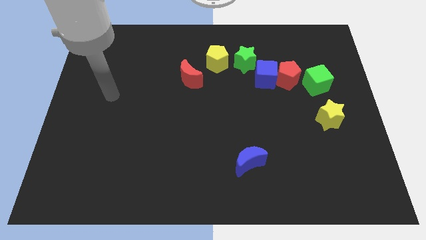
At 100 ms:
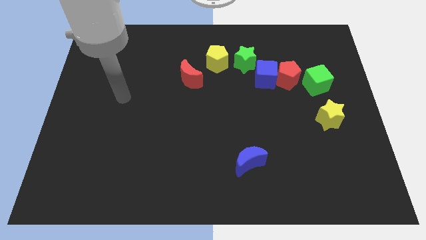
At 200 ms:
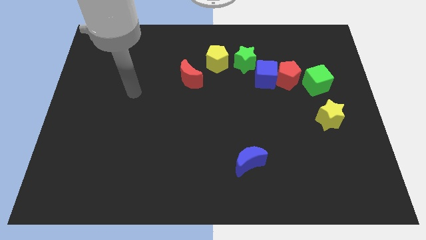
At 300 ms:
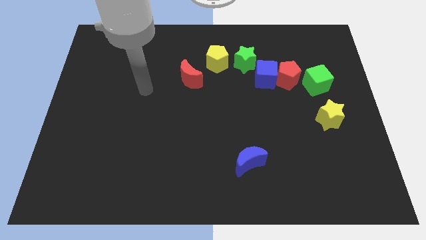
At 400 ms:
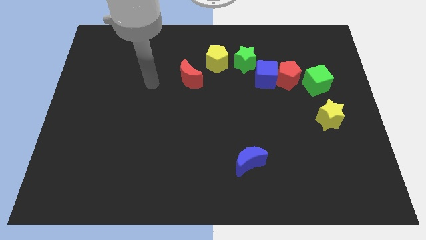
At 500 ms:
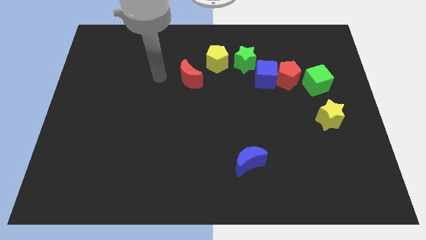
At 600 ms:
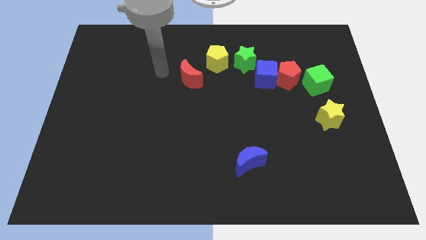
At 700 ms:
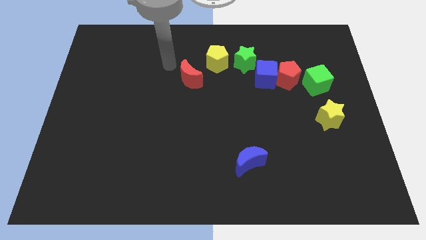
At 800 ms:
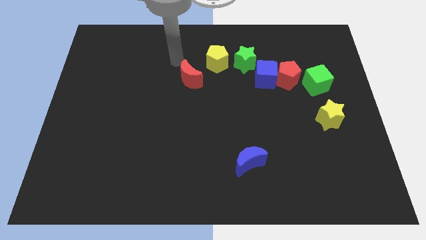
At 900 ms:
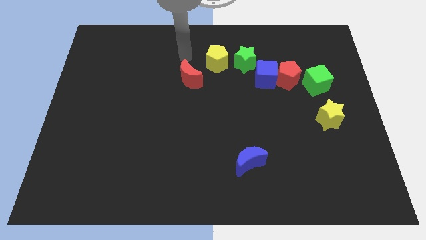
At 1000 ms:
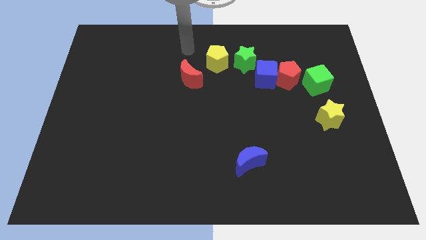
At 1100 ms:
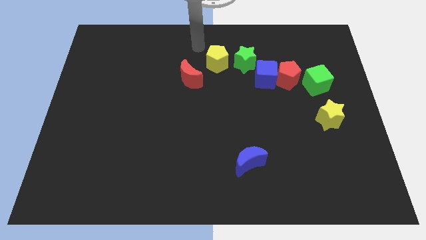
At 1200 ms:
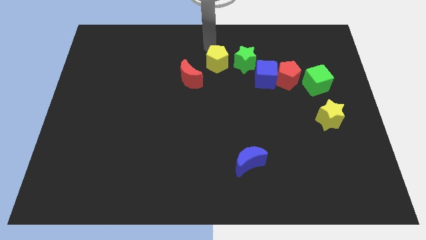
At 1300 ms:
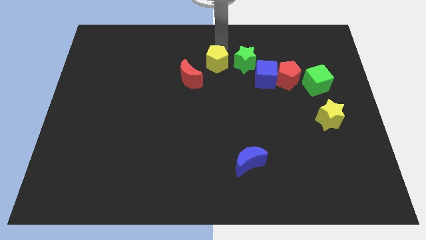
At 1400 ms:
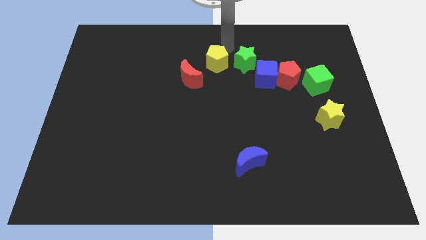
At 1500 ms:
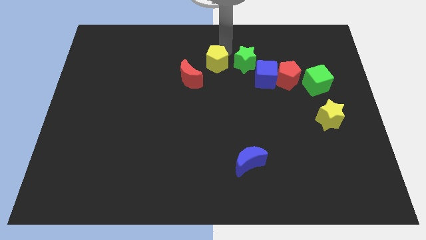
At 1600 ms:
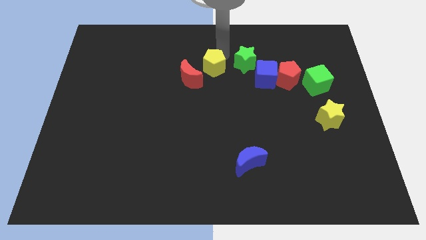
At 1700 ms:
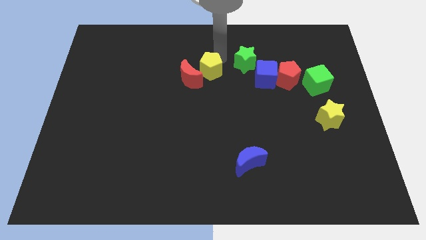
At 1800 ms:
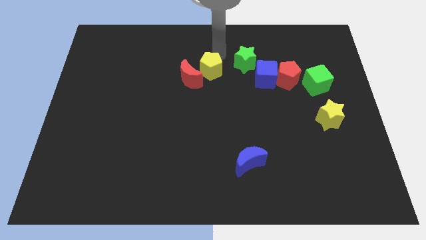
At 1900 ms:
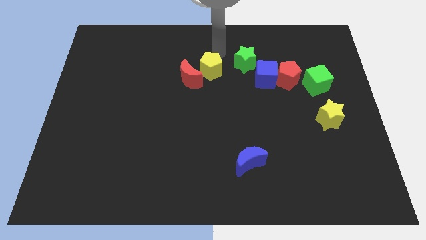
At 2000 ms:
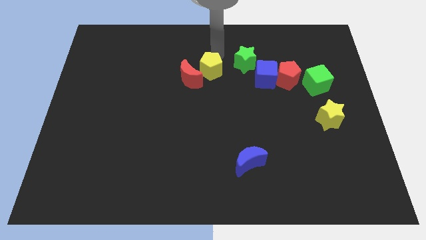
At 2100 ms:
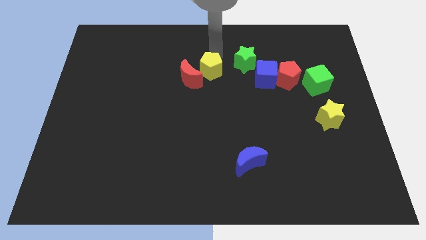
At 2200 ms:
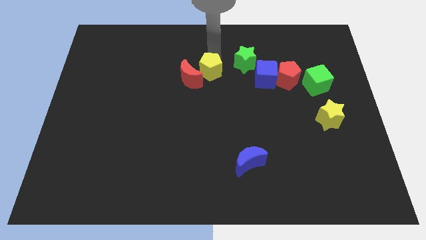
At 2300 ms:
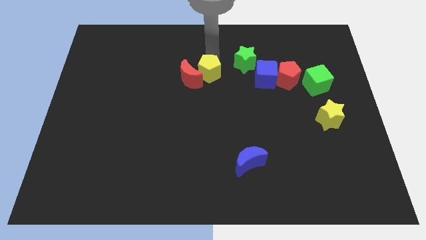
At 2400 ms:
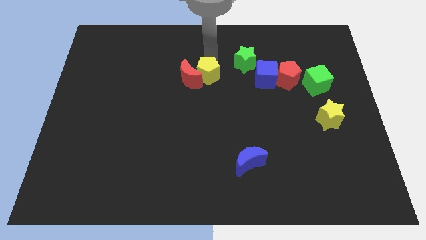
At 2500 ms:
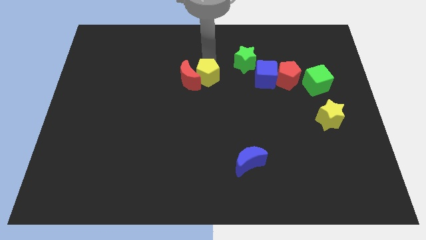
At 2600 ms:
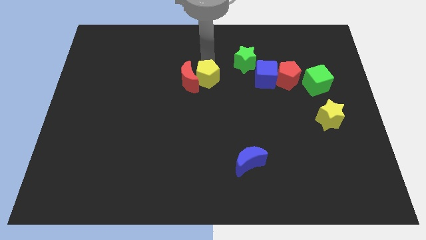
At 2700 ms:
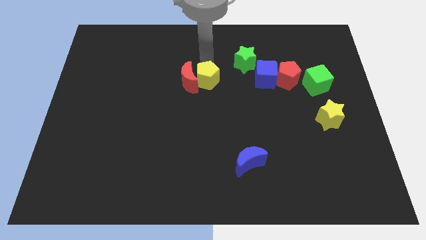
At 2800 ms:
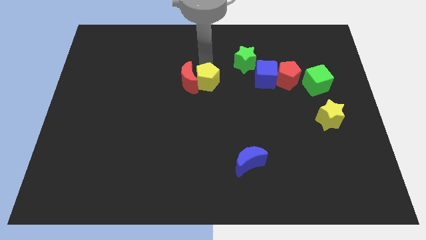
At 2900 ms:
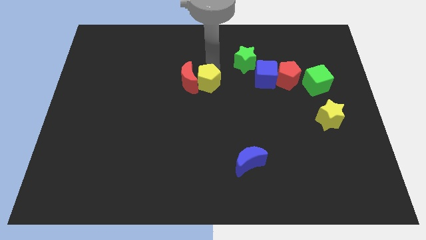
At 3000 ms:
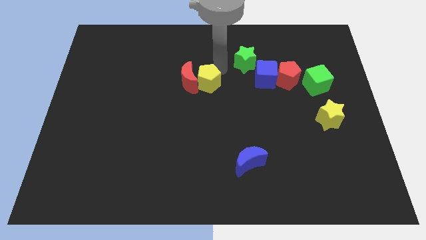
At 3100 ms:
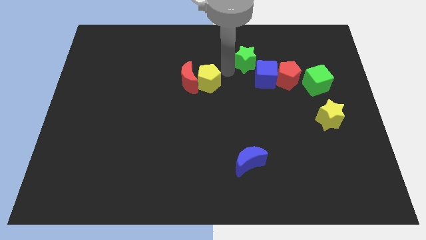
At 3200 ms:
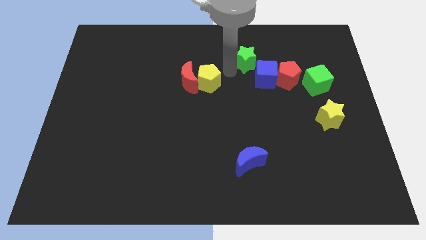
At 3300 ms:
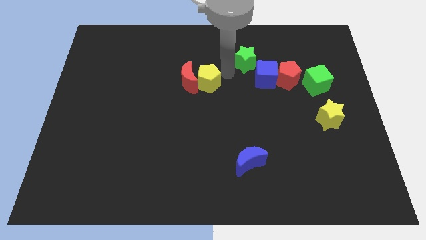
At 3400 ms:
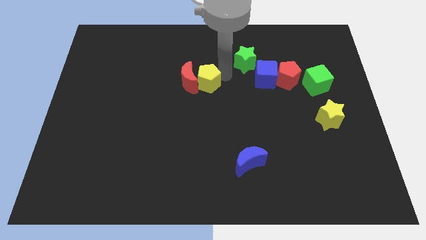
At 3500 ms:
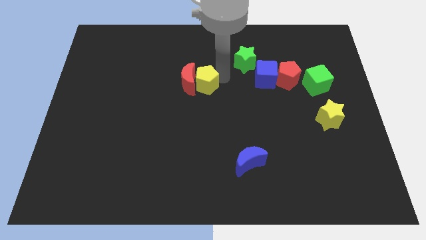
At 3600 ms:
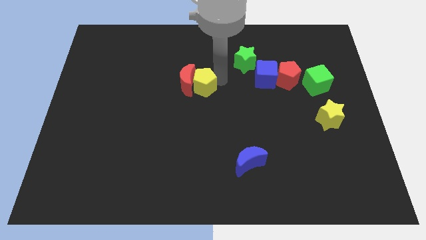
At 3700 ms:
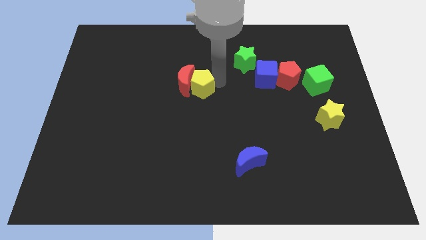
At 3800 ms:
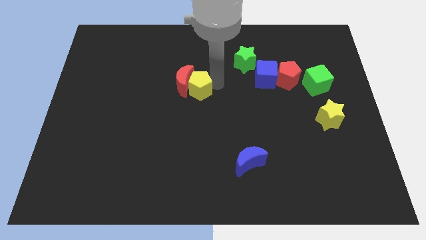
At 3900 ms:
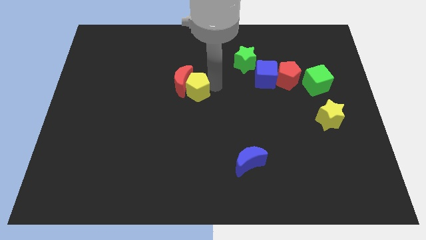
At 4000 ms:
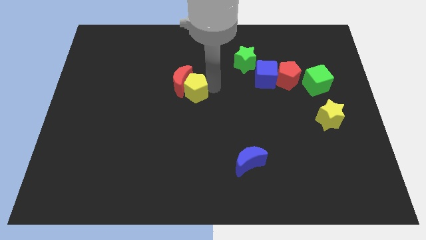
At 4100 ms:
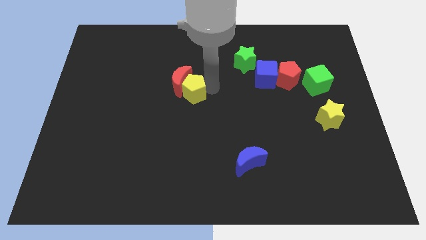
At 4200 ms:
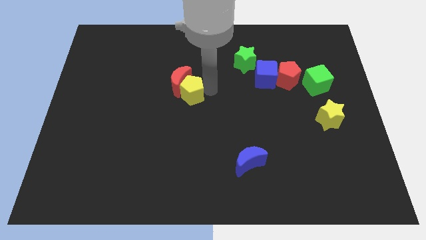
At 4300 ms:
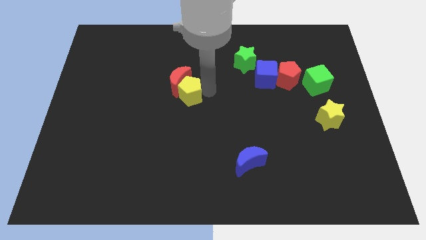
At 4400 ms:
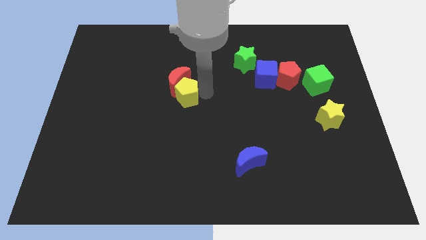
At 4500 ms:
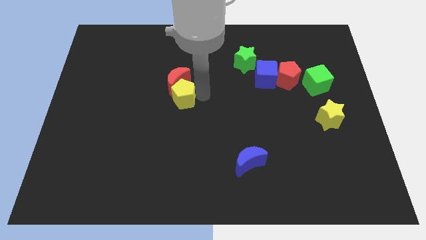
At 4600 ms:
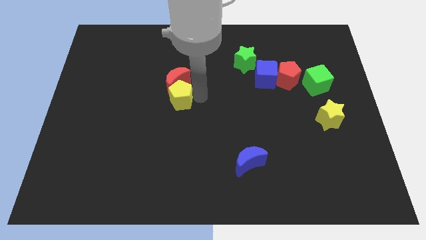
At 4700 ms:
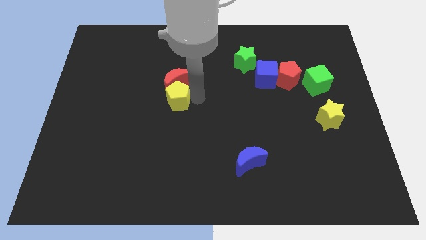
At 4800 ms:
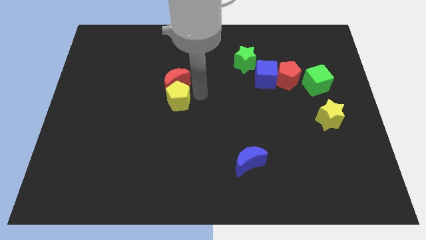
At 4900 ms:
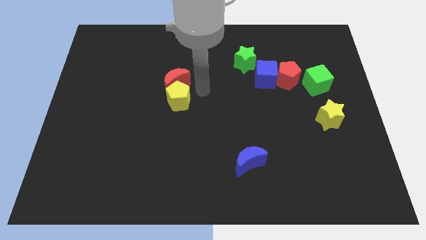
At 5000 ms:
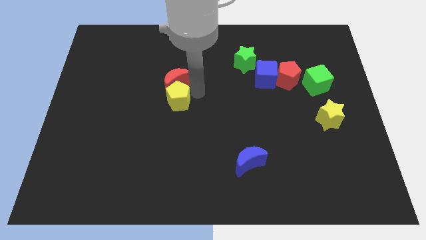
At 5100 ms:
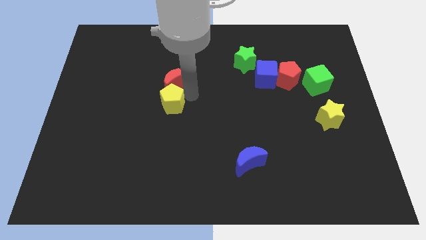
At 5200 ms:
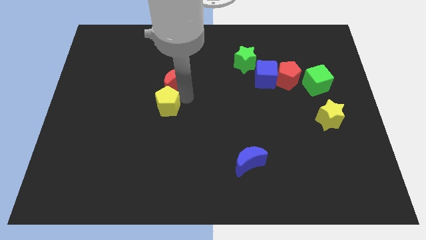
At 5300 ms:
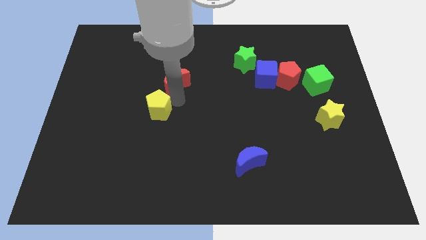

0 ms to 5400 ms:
slide the yellow pentagon downwards and then to the left

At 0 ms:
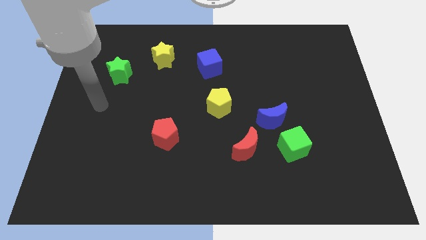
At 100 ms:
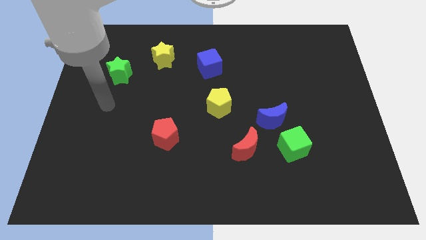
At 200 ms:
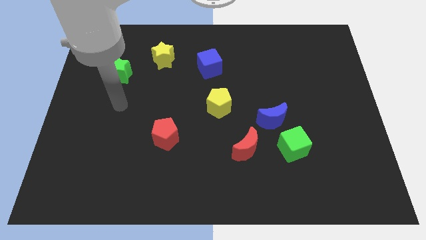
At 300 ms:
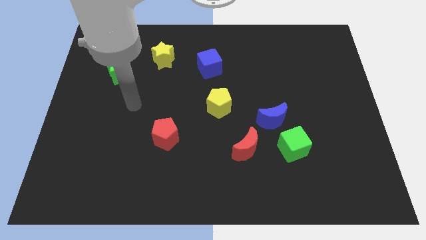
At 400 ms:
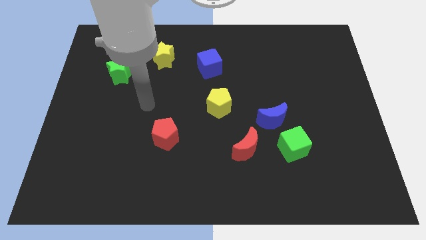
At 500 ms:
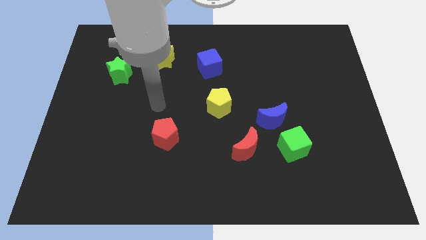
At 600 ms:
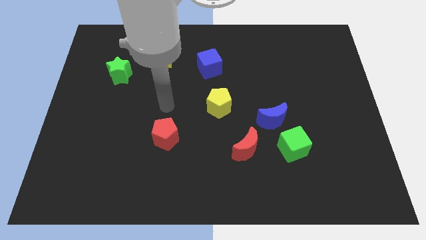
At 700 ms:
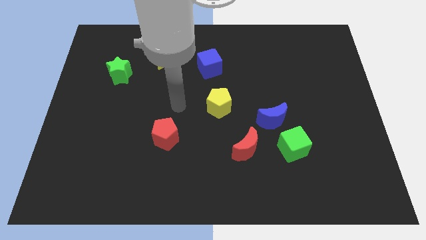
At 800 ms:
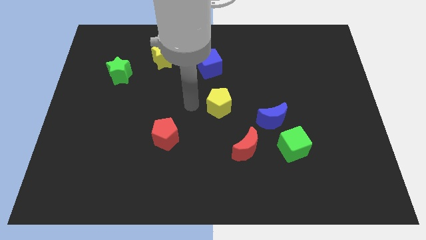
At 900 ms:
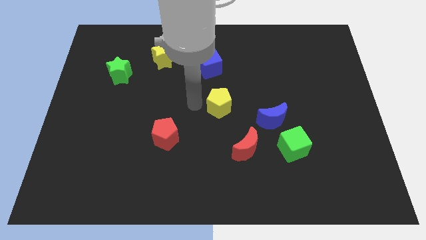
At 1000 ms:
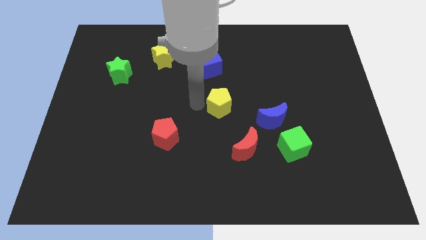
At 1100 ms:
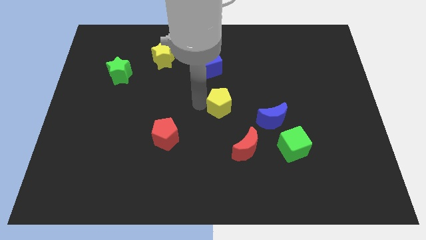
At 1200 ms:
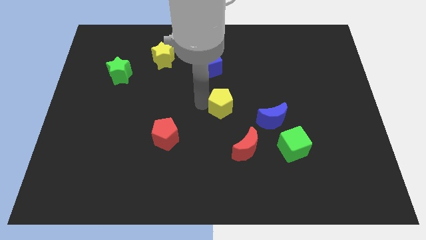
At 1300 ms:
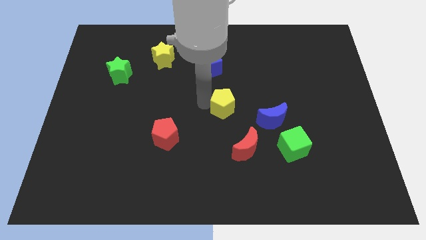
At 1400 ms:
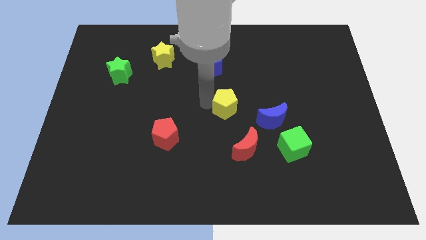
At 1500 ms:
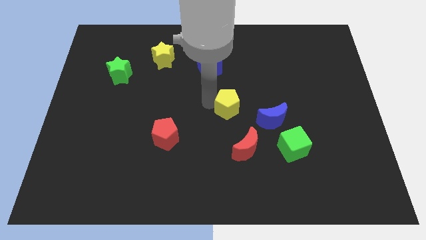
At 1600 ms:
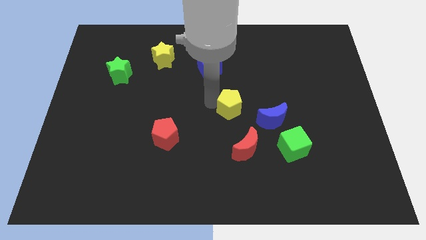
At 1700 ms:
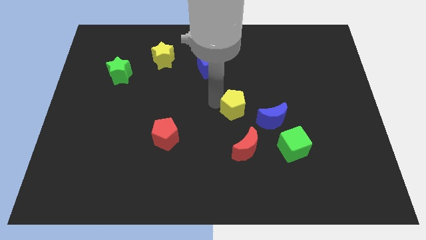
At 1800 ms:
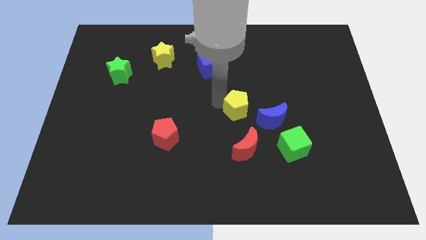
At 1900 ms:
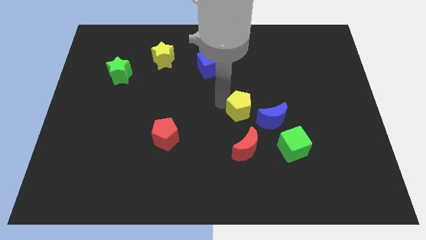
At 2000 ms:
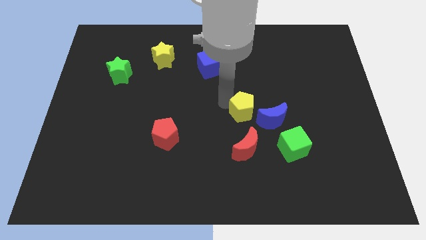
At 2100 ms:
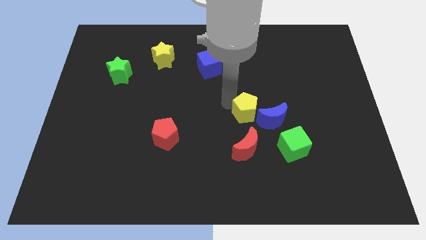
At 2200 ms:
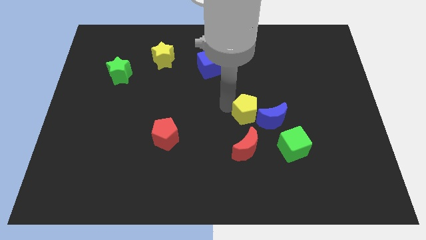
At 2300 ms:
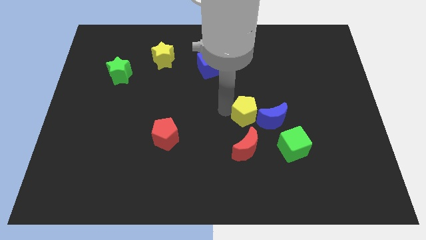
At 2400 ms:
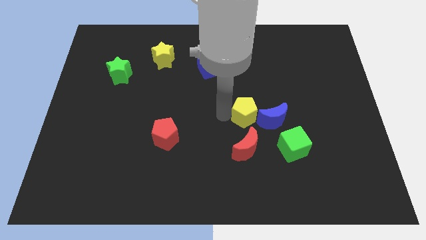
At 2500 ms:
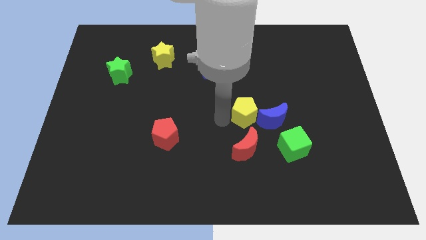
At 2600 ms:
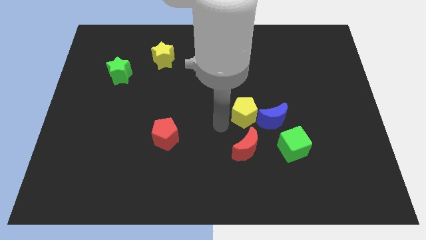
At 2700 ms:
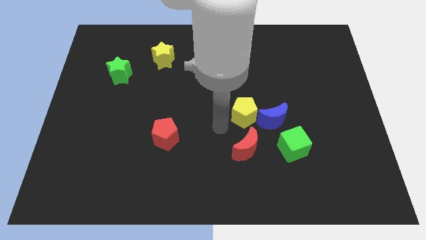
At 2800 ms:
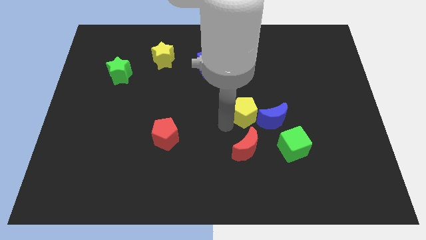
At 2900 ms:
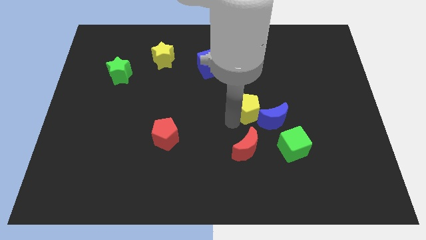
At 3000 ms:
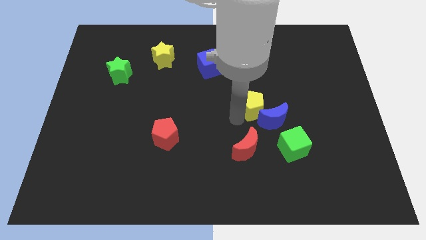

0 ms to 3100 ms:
slide the yellow pentagon to the right slightly
